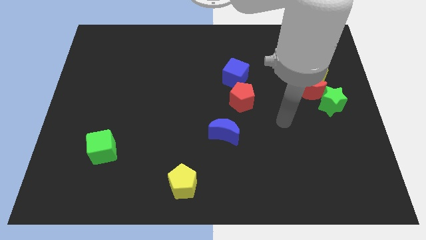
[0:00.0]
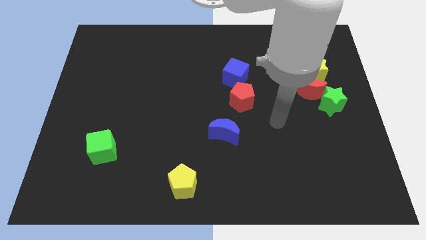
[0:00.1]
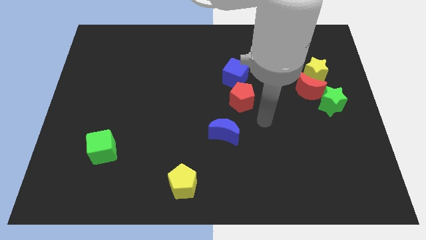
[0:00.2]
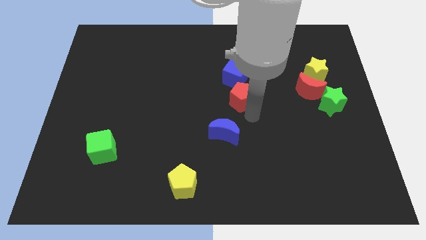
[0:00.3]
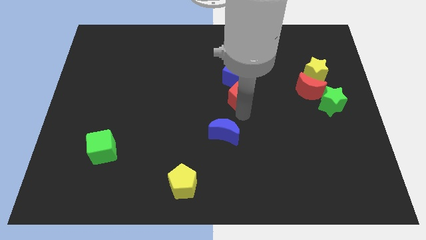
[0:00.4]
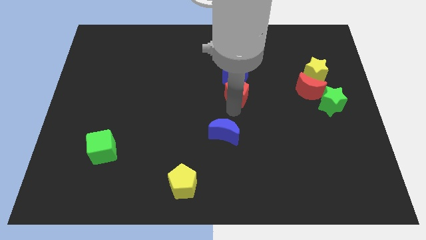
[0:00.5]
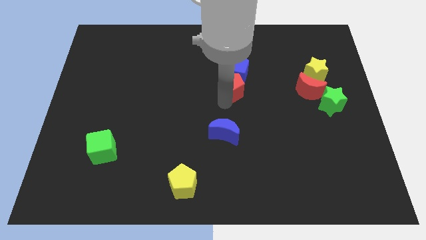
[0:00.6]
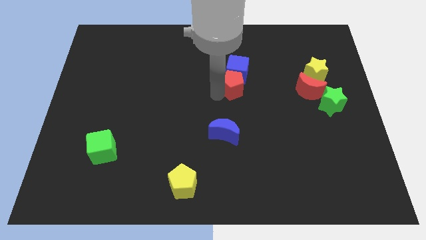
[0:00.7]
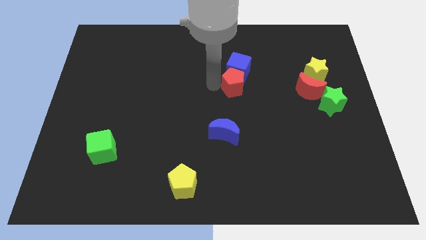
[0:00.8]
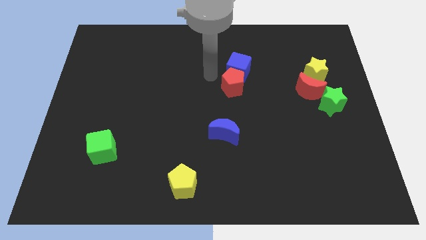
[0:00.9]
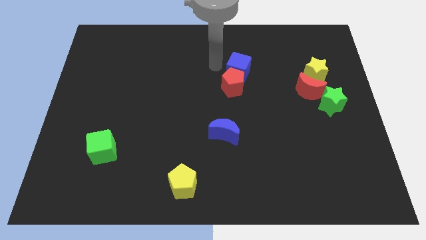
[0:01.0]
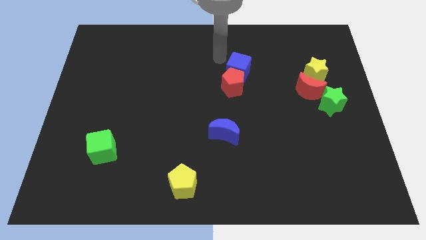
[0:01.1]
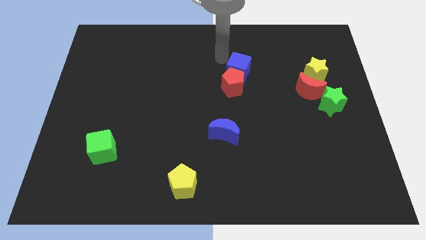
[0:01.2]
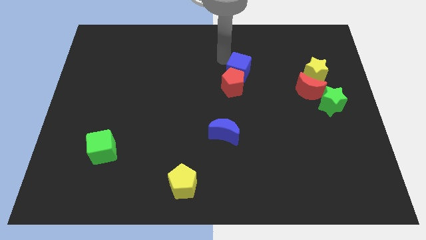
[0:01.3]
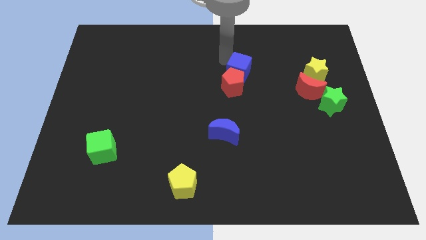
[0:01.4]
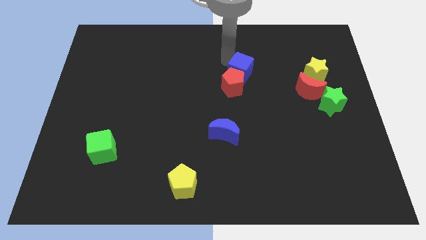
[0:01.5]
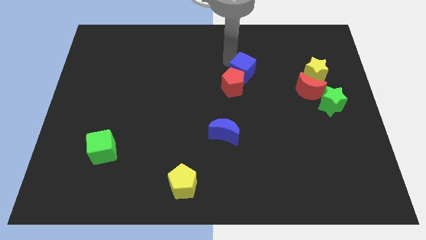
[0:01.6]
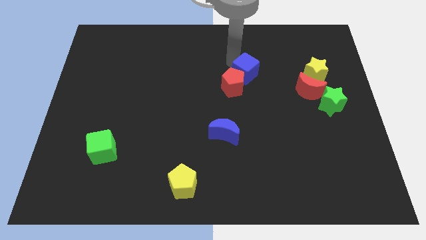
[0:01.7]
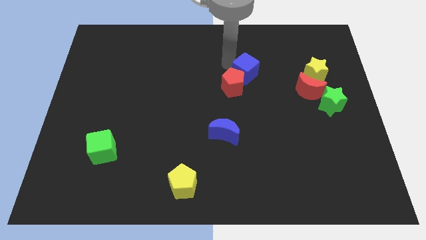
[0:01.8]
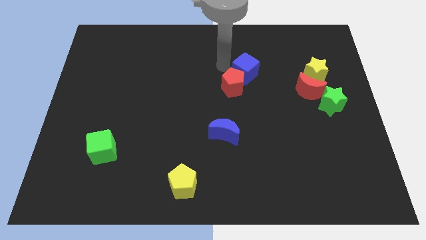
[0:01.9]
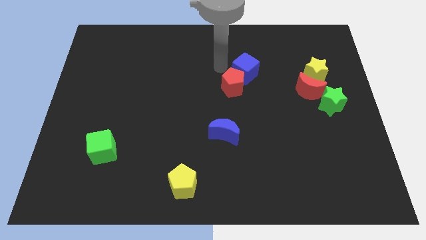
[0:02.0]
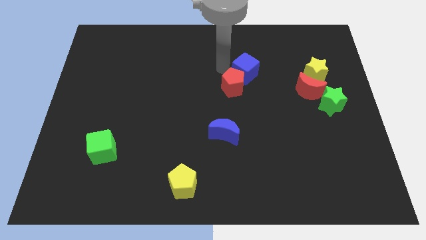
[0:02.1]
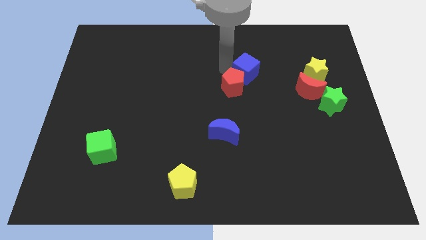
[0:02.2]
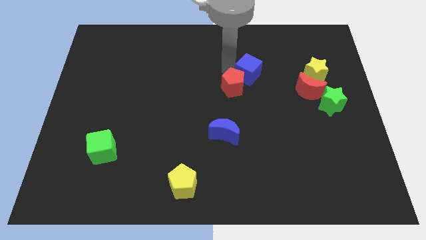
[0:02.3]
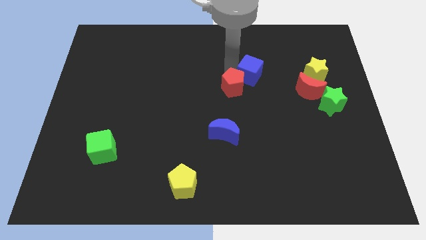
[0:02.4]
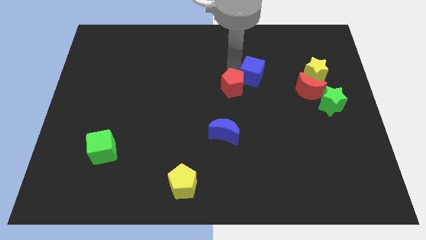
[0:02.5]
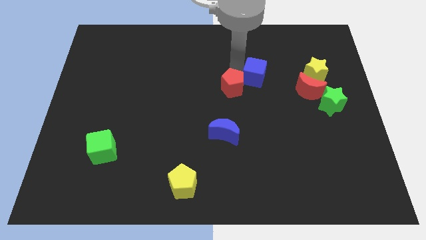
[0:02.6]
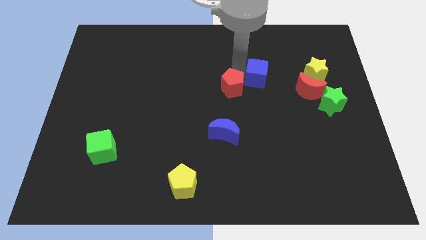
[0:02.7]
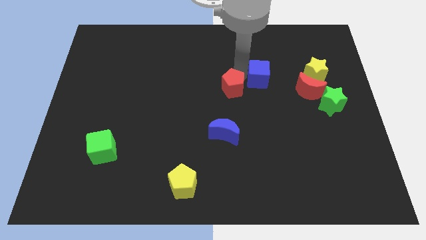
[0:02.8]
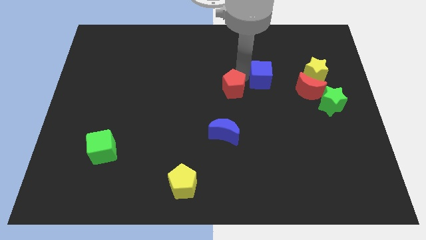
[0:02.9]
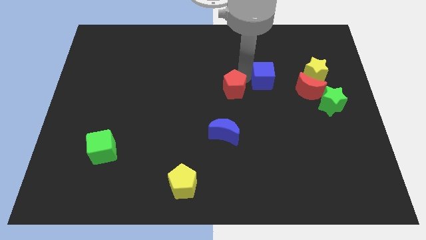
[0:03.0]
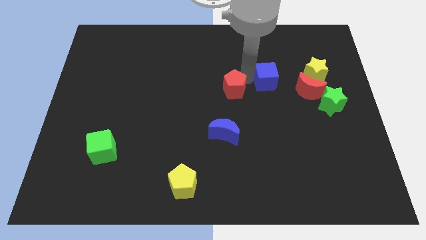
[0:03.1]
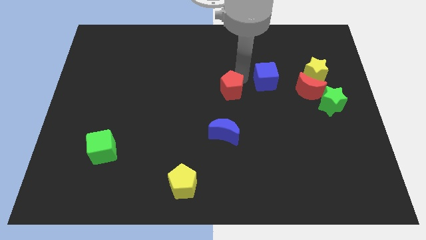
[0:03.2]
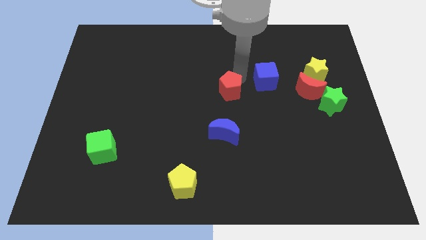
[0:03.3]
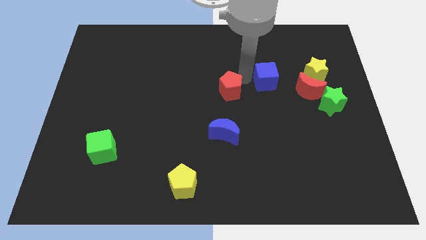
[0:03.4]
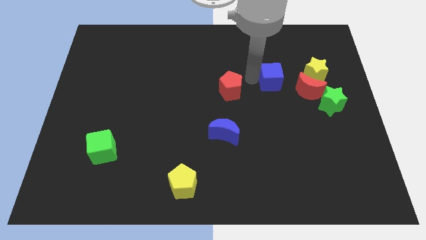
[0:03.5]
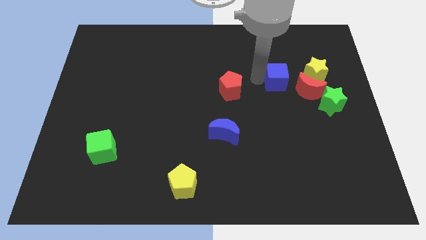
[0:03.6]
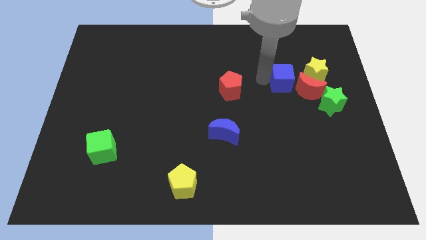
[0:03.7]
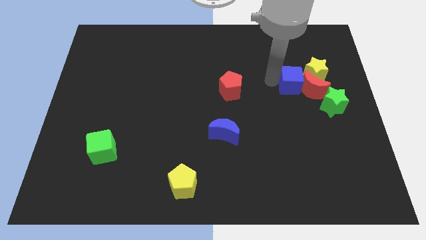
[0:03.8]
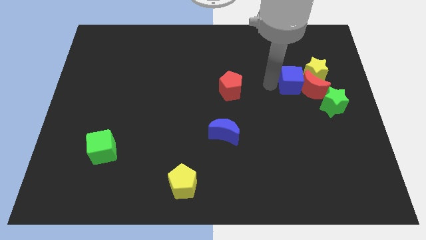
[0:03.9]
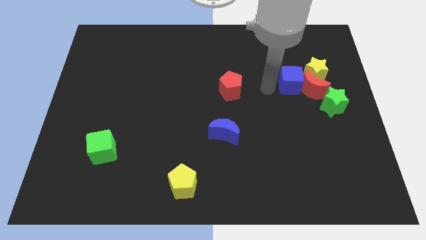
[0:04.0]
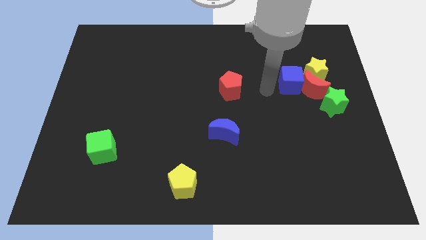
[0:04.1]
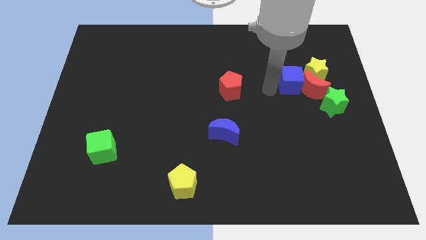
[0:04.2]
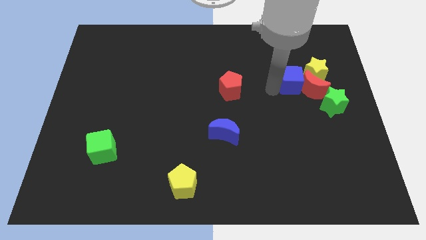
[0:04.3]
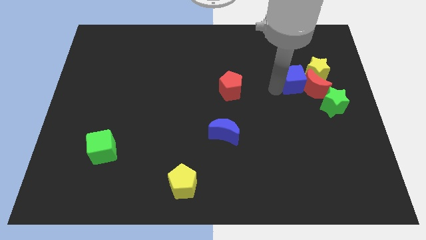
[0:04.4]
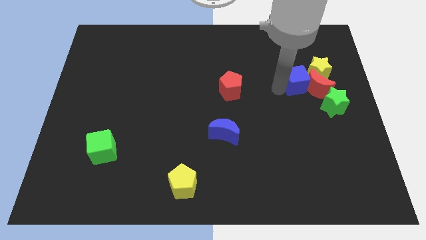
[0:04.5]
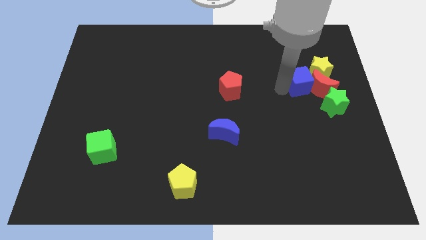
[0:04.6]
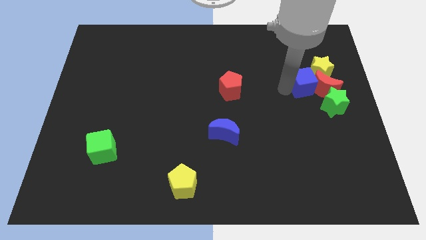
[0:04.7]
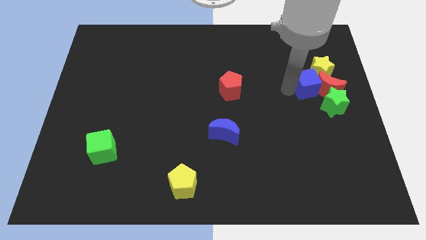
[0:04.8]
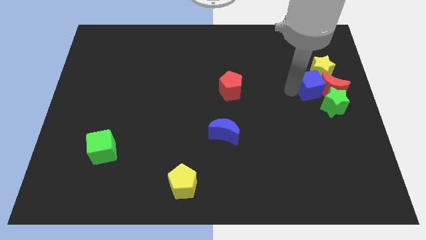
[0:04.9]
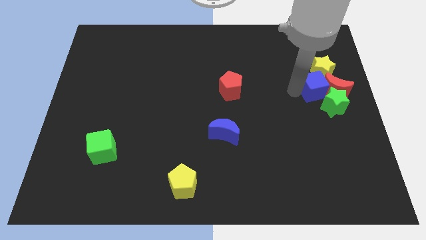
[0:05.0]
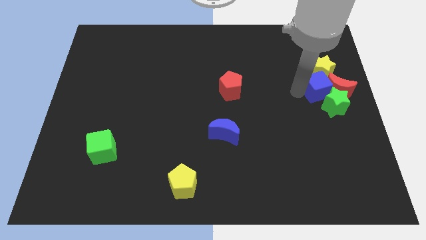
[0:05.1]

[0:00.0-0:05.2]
push the blue cube close to the yellow star

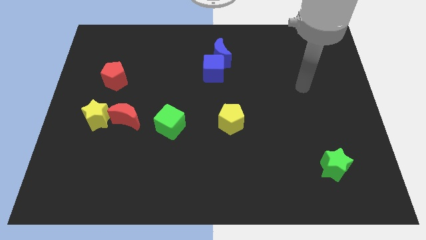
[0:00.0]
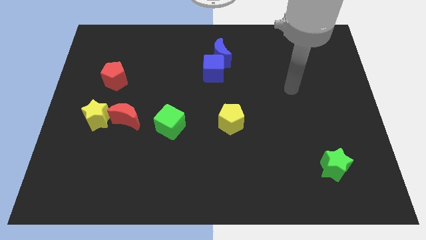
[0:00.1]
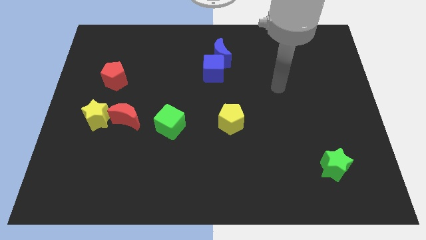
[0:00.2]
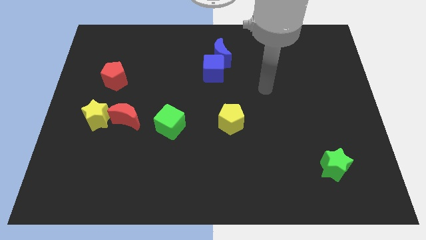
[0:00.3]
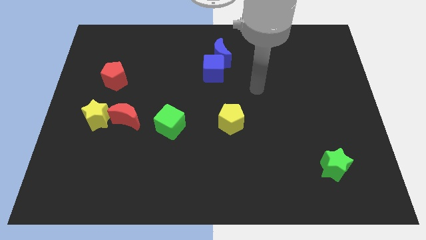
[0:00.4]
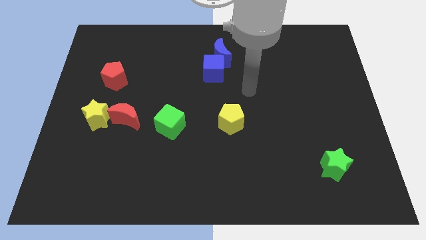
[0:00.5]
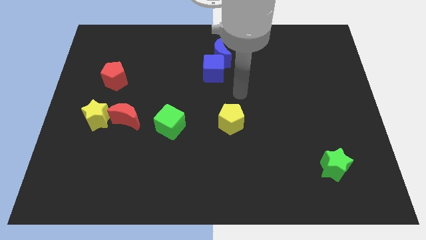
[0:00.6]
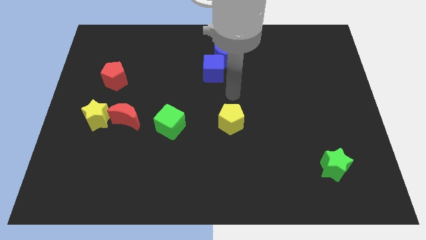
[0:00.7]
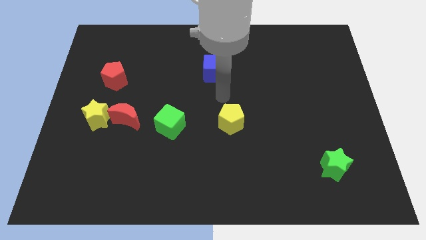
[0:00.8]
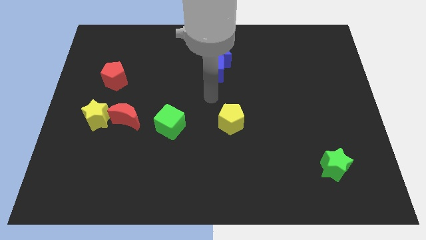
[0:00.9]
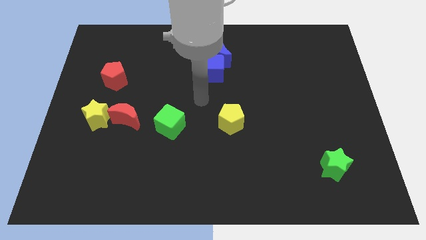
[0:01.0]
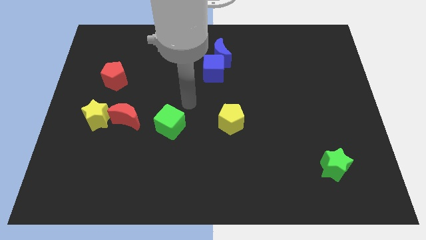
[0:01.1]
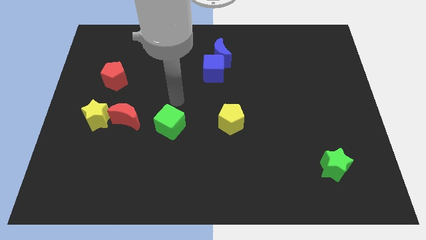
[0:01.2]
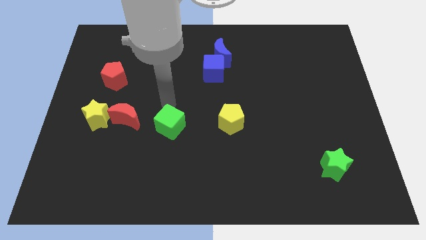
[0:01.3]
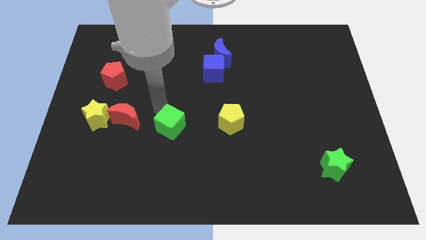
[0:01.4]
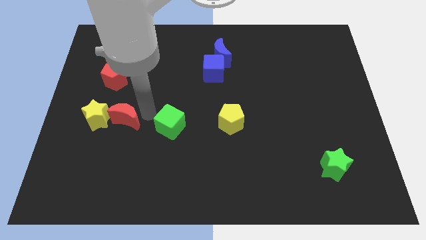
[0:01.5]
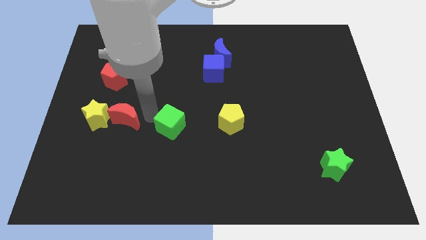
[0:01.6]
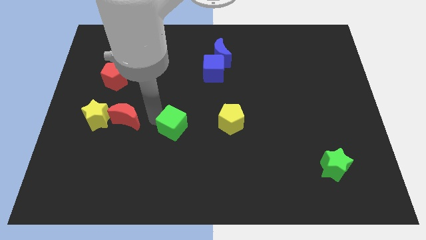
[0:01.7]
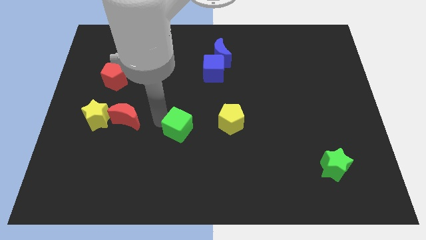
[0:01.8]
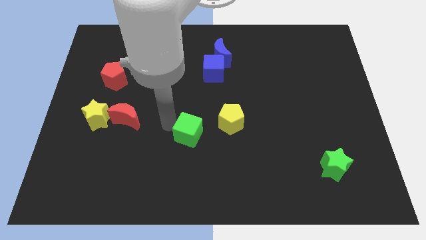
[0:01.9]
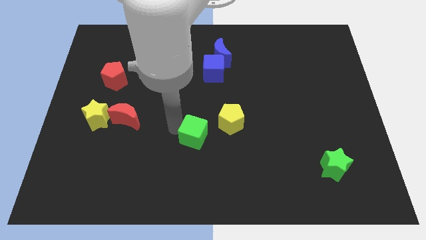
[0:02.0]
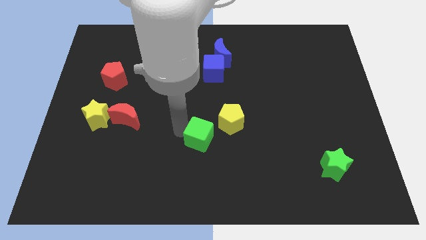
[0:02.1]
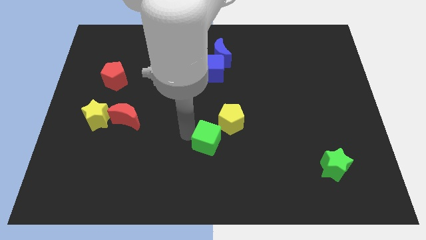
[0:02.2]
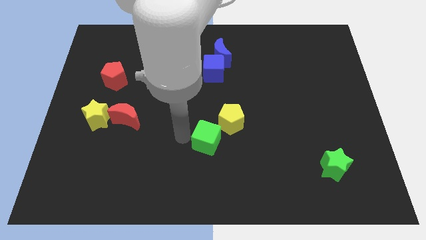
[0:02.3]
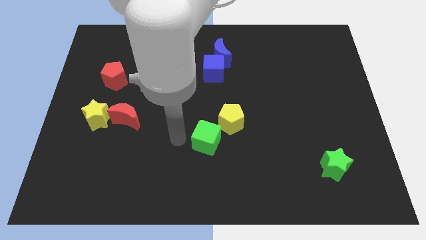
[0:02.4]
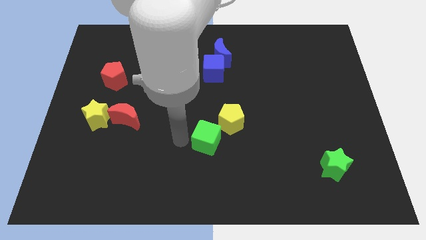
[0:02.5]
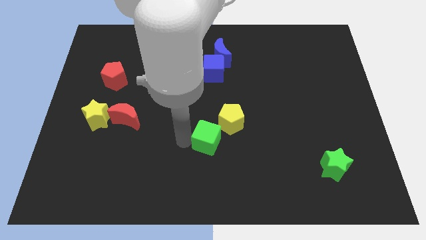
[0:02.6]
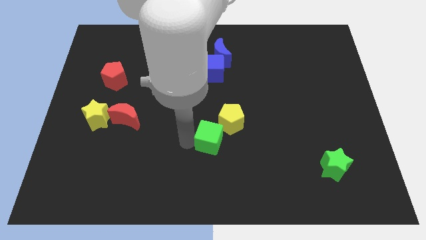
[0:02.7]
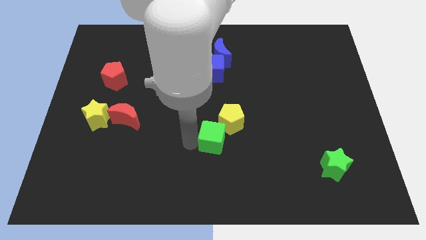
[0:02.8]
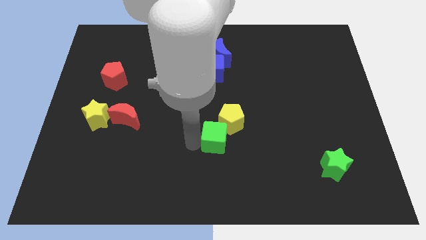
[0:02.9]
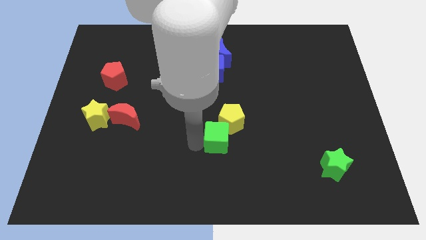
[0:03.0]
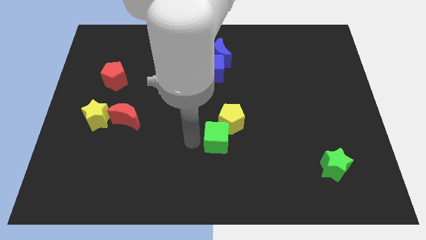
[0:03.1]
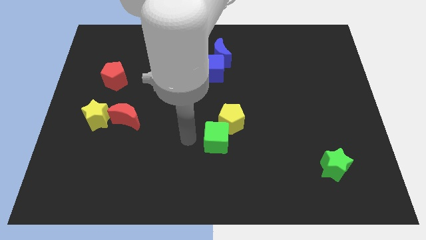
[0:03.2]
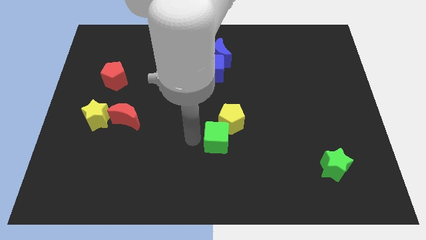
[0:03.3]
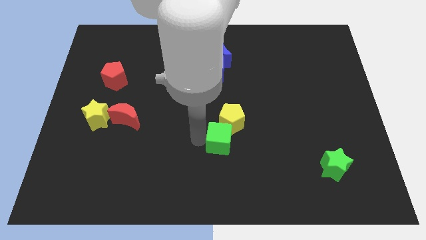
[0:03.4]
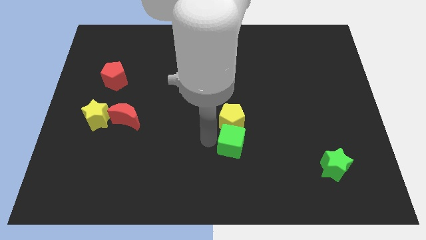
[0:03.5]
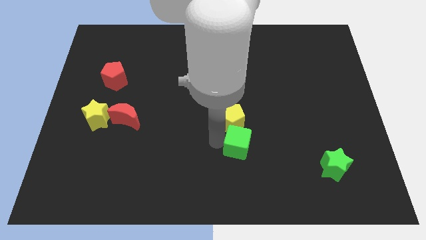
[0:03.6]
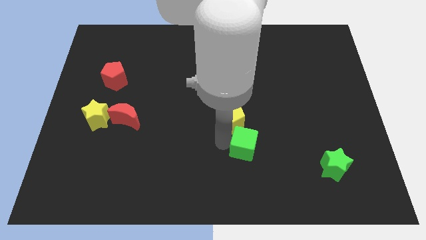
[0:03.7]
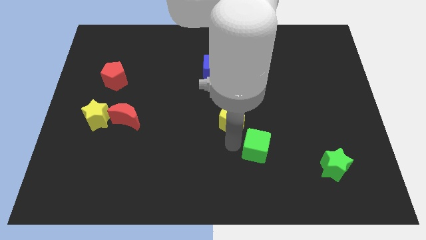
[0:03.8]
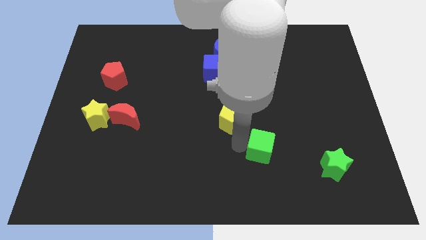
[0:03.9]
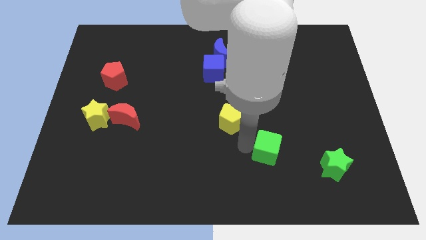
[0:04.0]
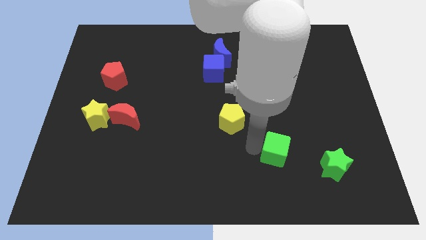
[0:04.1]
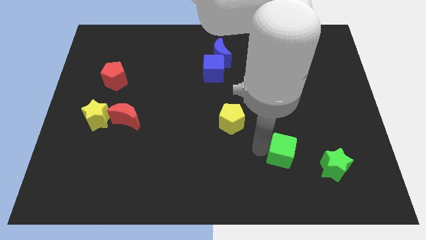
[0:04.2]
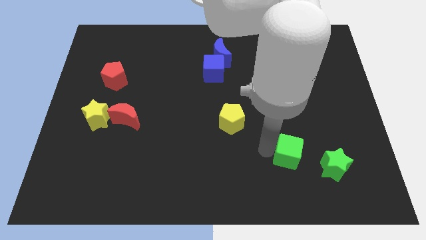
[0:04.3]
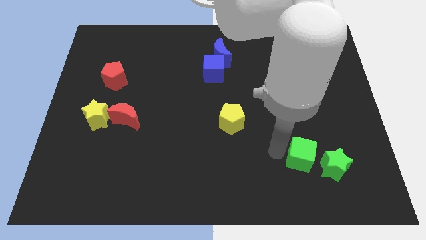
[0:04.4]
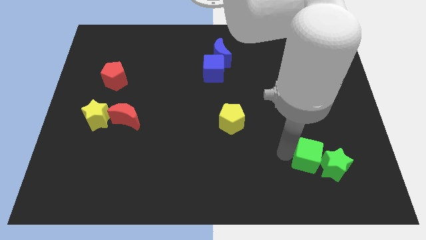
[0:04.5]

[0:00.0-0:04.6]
push the green cube close to the green star
